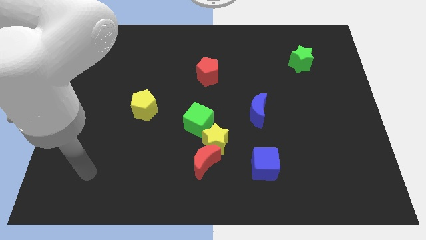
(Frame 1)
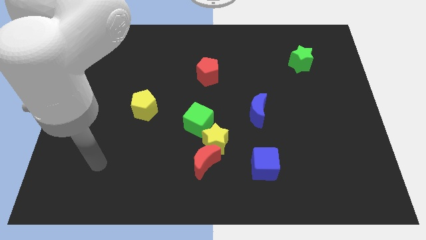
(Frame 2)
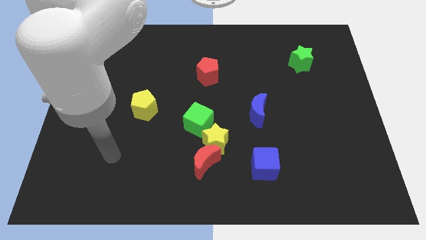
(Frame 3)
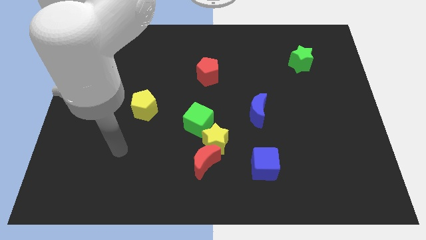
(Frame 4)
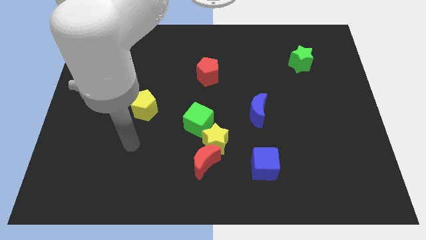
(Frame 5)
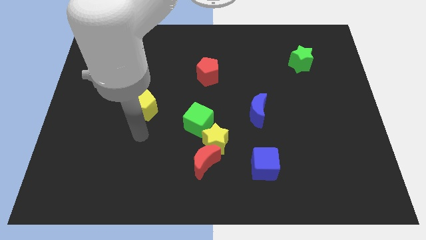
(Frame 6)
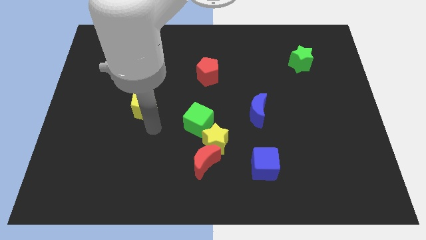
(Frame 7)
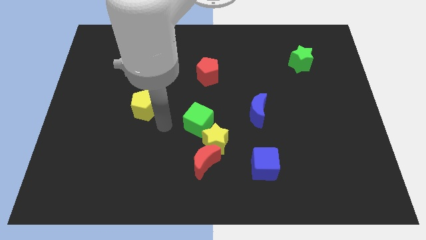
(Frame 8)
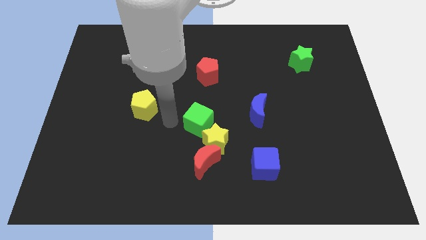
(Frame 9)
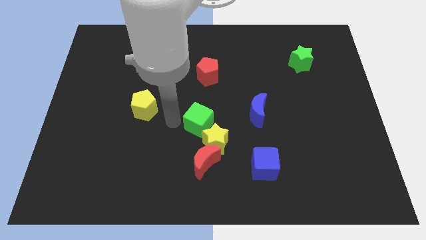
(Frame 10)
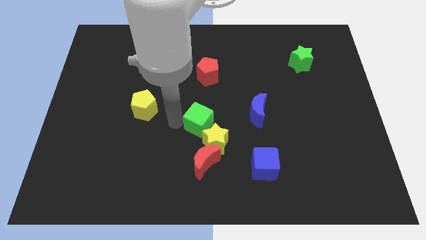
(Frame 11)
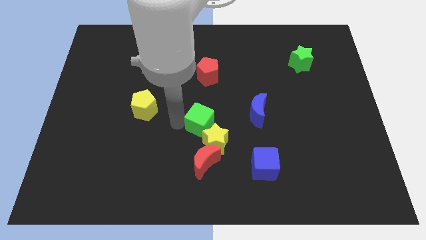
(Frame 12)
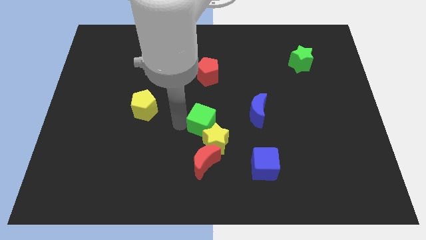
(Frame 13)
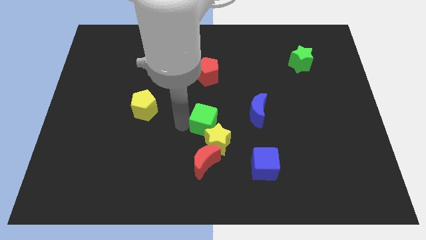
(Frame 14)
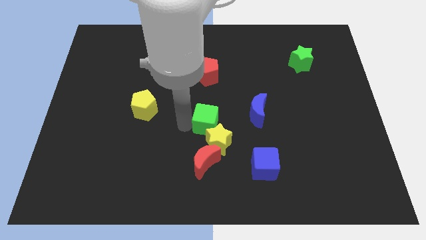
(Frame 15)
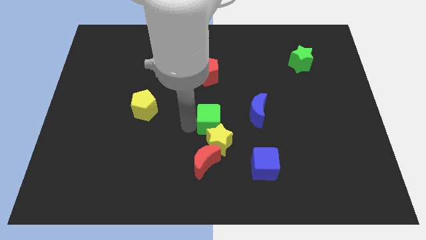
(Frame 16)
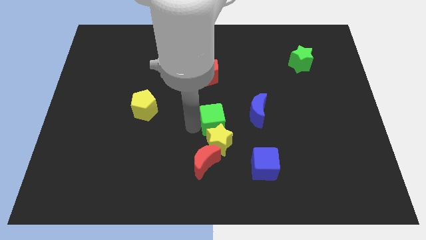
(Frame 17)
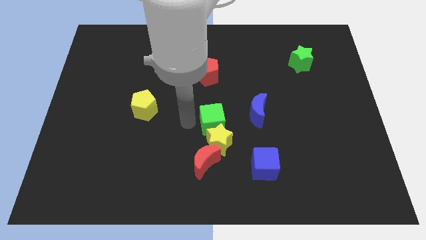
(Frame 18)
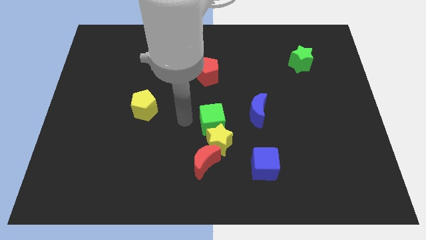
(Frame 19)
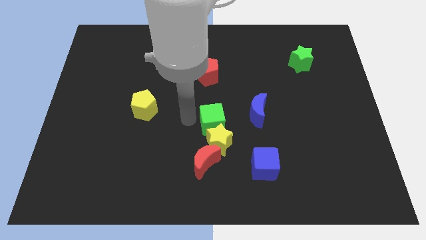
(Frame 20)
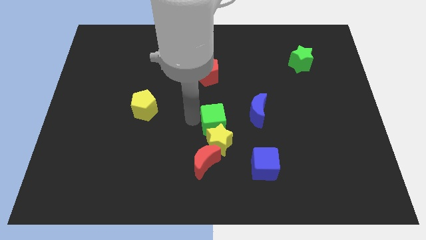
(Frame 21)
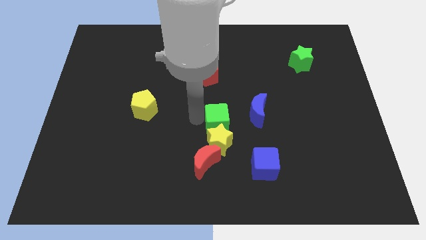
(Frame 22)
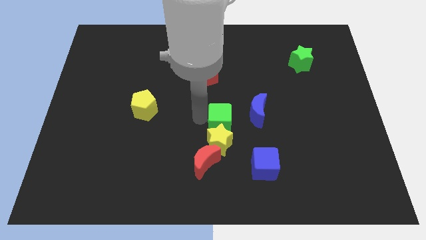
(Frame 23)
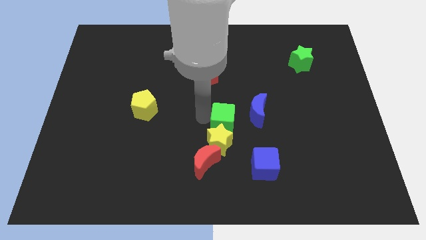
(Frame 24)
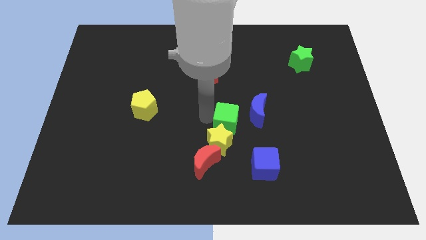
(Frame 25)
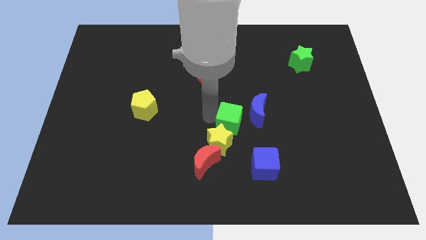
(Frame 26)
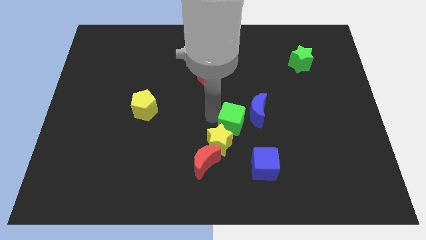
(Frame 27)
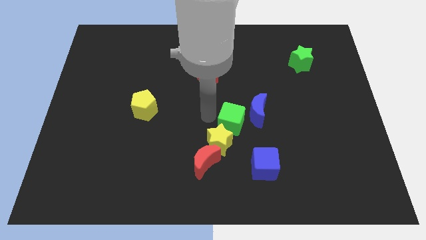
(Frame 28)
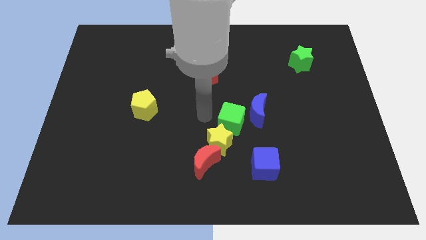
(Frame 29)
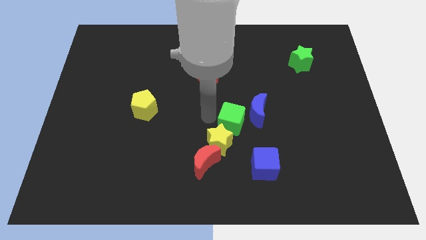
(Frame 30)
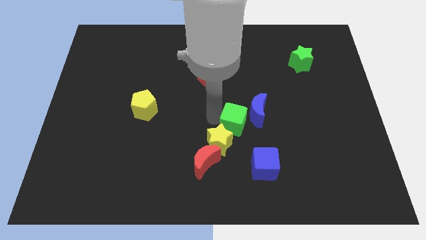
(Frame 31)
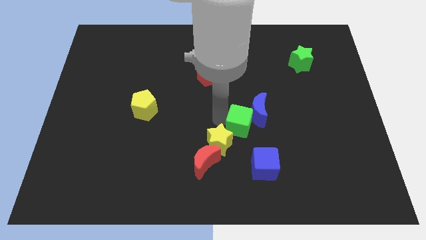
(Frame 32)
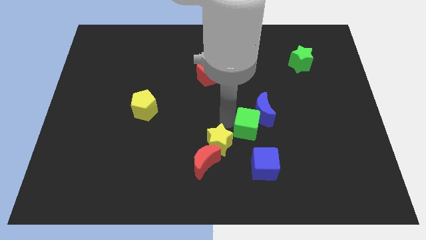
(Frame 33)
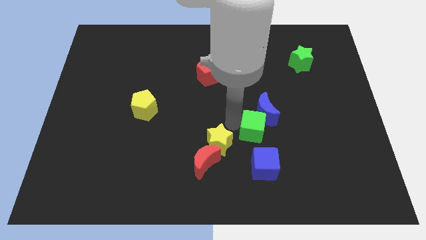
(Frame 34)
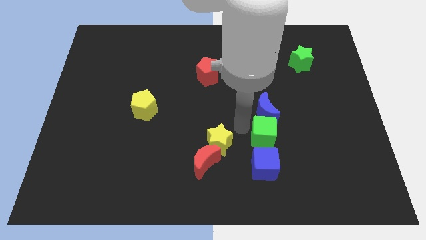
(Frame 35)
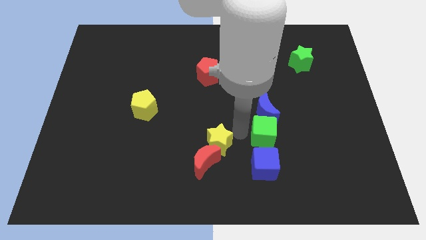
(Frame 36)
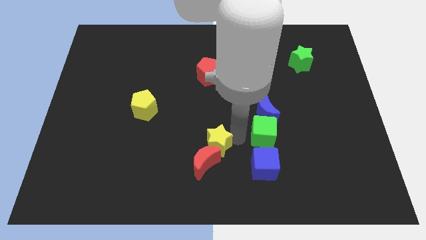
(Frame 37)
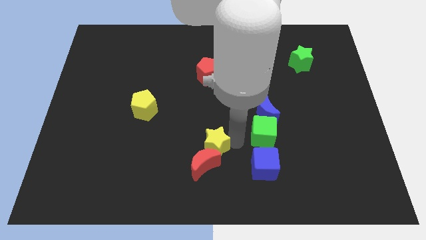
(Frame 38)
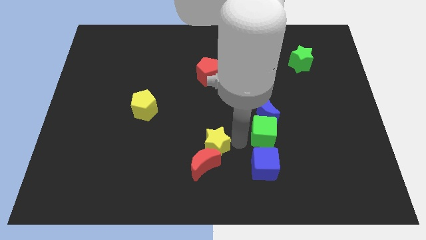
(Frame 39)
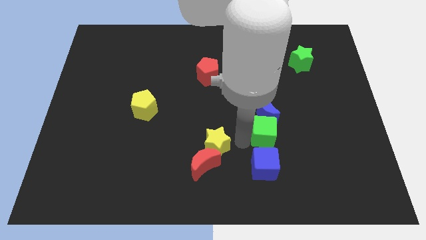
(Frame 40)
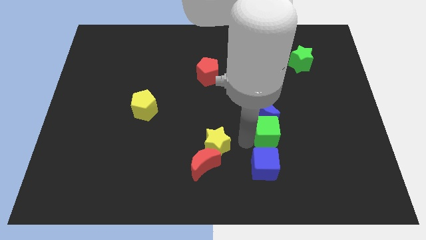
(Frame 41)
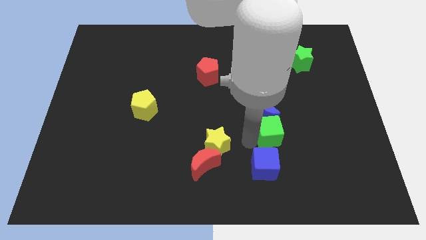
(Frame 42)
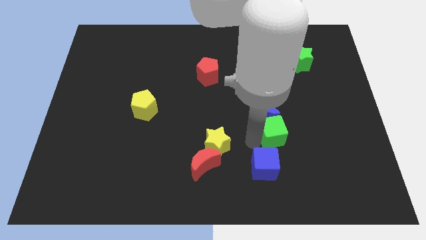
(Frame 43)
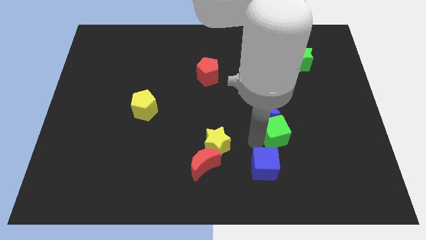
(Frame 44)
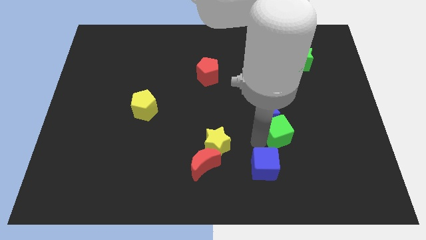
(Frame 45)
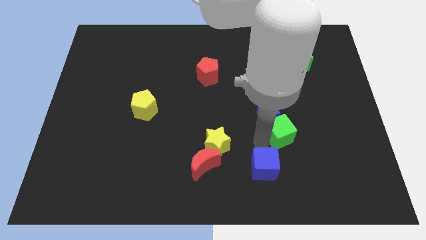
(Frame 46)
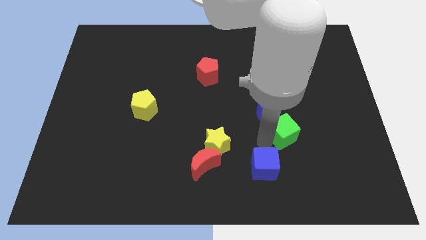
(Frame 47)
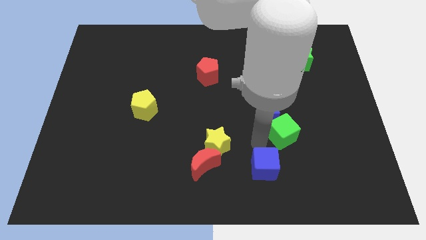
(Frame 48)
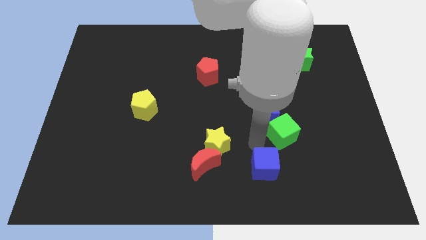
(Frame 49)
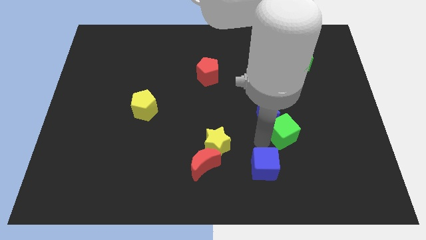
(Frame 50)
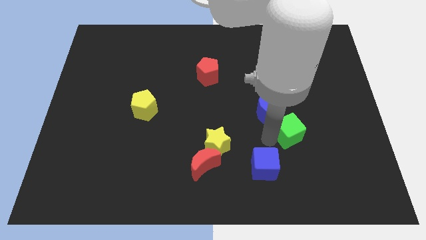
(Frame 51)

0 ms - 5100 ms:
slide the green cube right

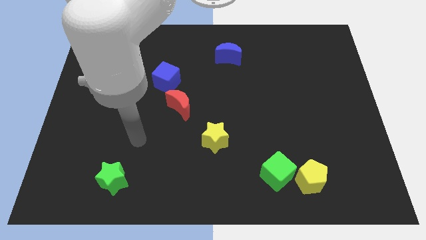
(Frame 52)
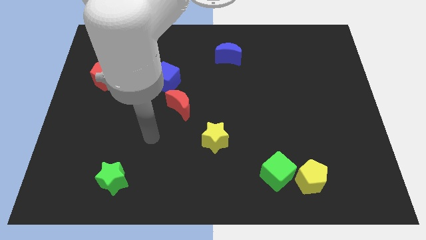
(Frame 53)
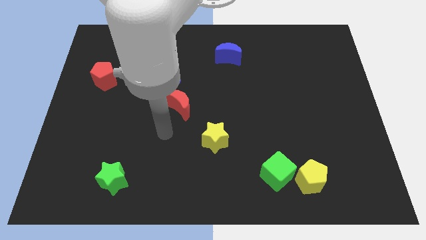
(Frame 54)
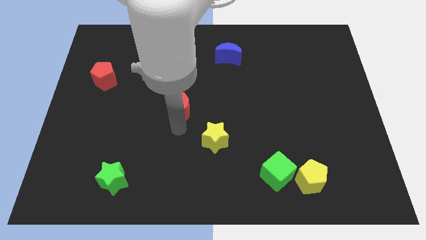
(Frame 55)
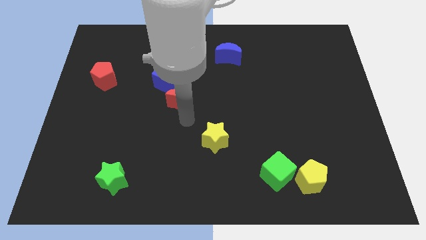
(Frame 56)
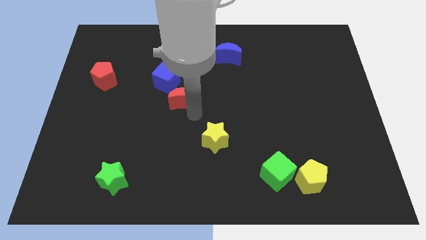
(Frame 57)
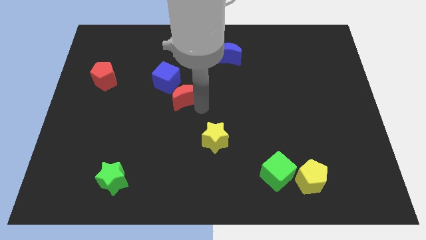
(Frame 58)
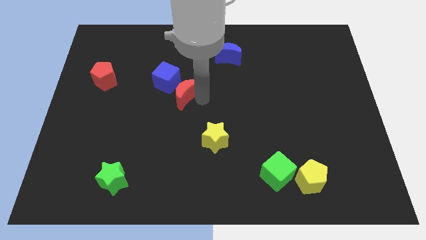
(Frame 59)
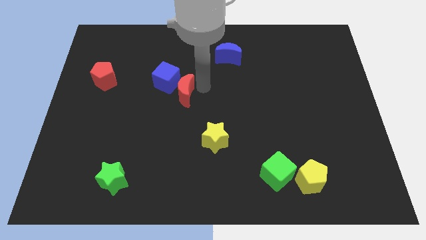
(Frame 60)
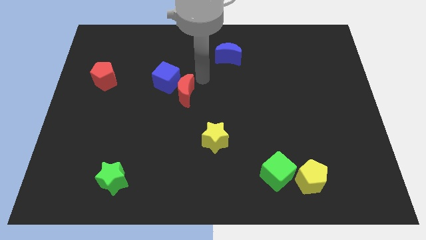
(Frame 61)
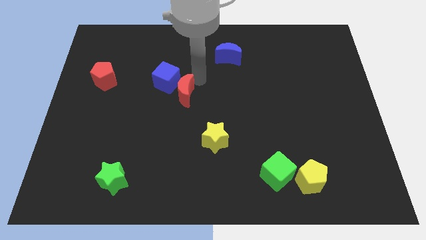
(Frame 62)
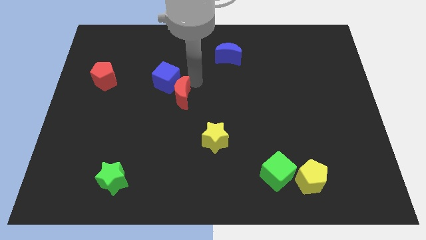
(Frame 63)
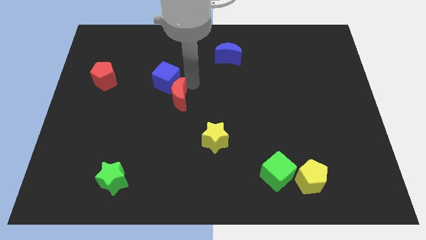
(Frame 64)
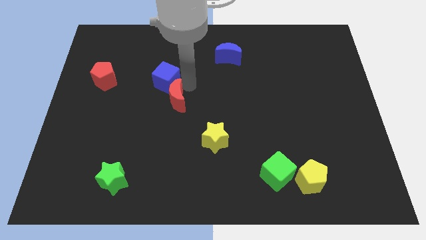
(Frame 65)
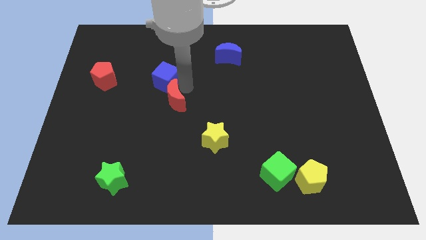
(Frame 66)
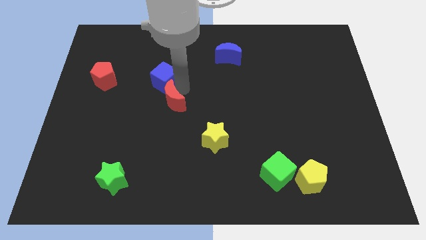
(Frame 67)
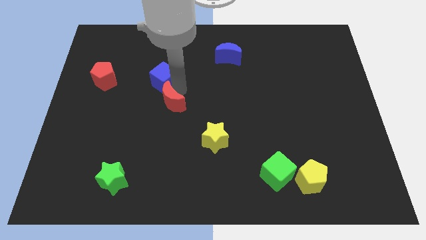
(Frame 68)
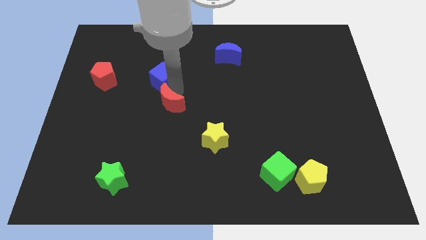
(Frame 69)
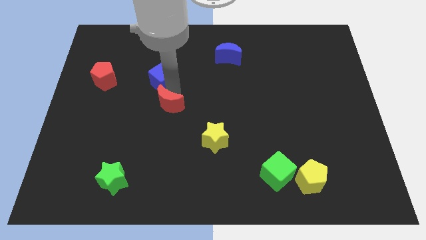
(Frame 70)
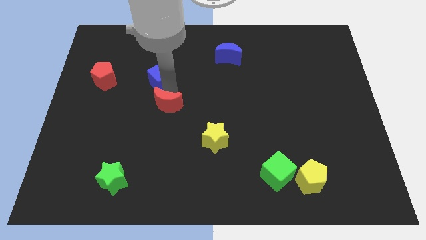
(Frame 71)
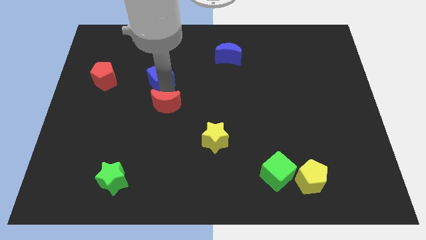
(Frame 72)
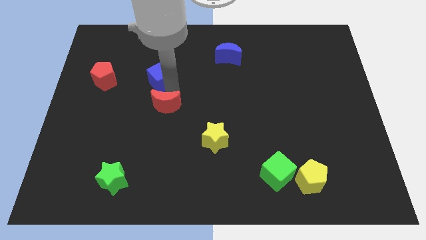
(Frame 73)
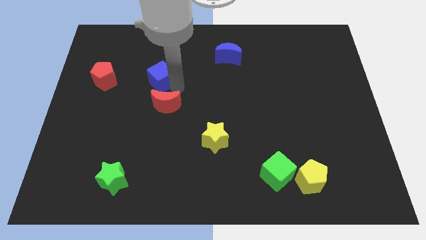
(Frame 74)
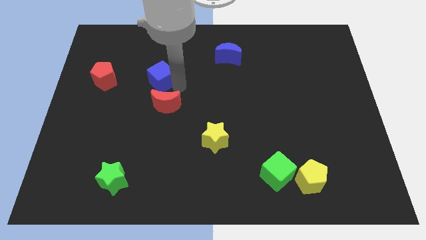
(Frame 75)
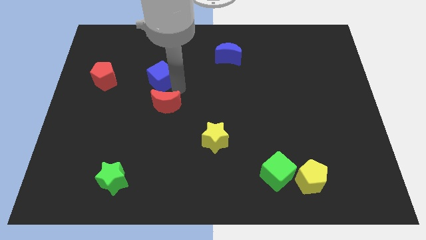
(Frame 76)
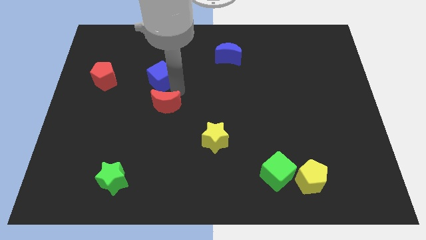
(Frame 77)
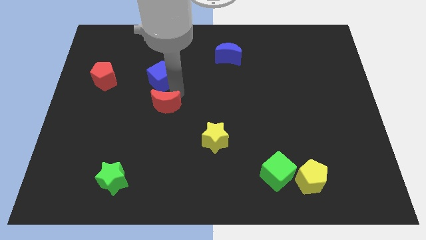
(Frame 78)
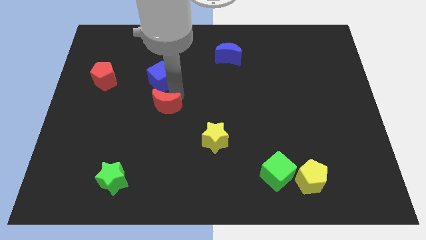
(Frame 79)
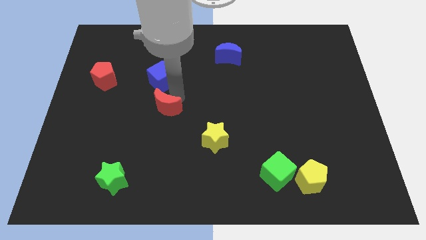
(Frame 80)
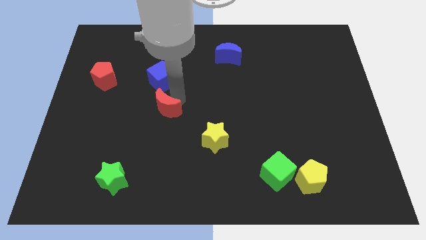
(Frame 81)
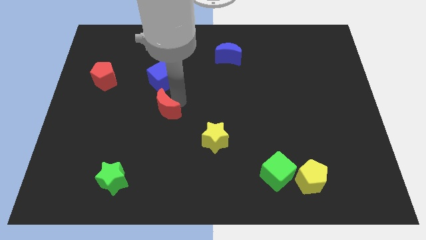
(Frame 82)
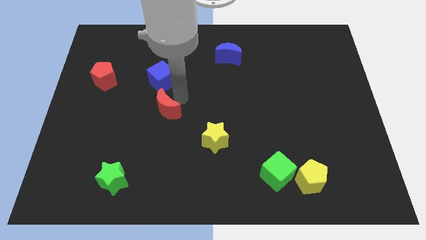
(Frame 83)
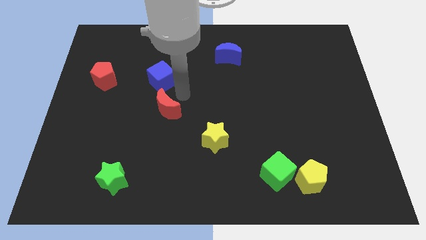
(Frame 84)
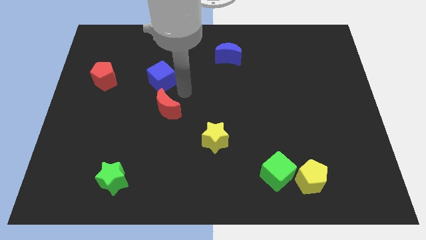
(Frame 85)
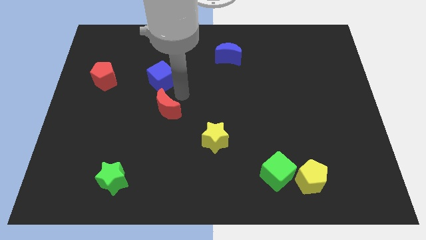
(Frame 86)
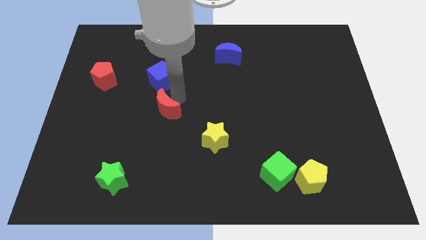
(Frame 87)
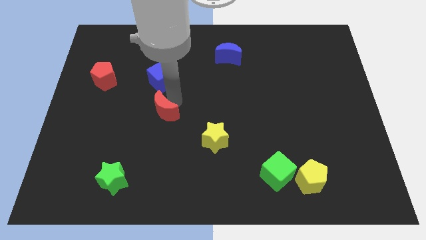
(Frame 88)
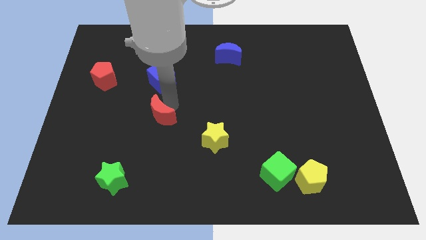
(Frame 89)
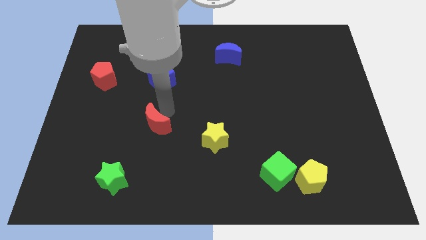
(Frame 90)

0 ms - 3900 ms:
slide the red moon somewhat down and to the left
